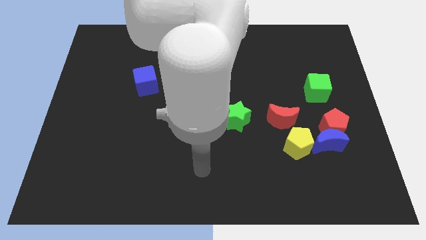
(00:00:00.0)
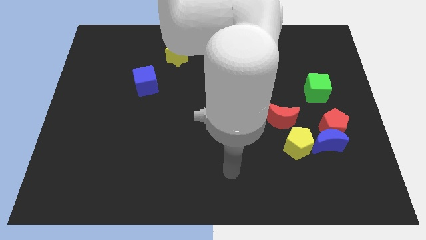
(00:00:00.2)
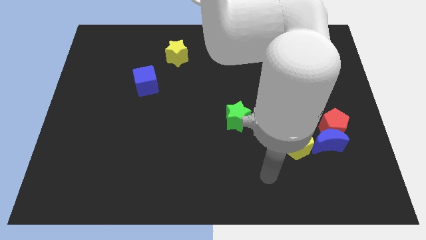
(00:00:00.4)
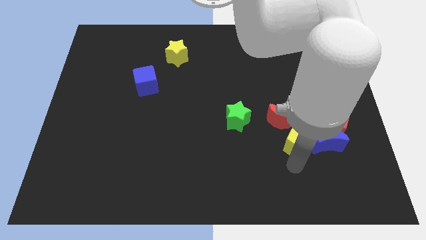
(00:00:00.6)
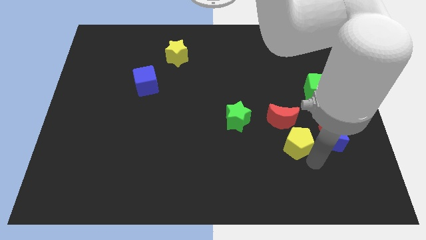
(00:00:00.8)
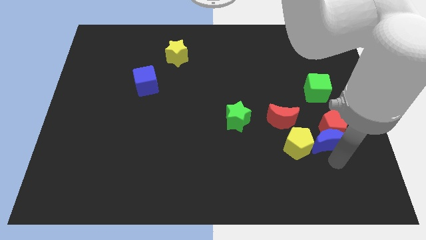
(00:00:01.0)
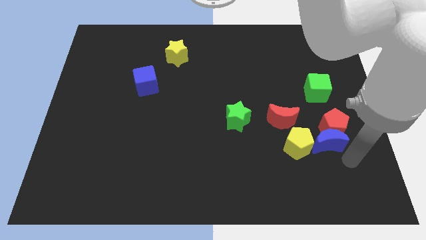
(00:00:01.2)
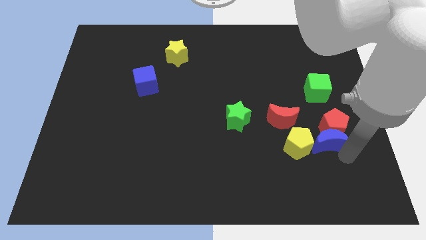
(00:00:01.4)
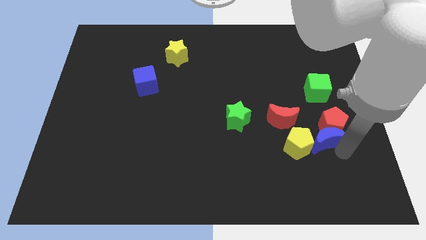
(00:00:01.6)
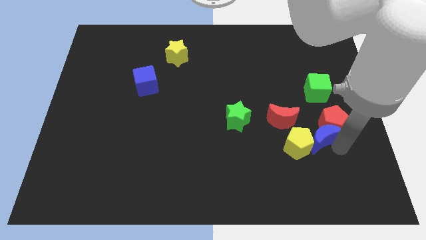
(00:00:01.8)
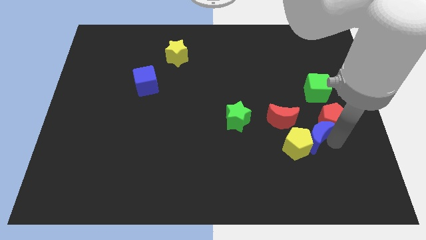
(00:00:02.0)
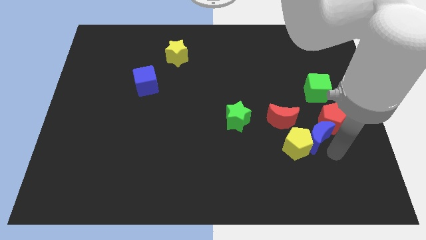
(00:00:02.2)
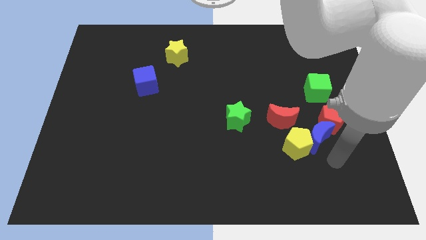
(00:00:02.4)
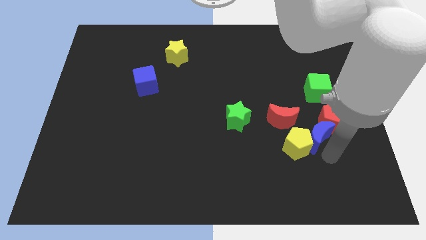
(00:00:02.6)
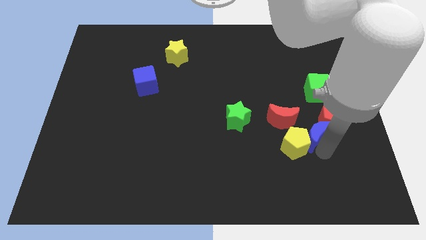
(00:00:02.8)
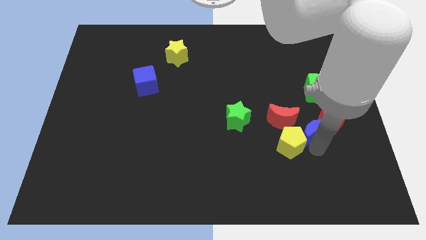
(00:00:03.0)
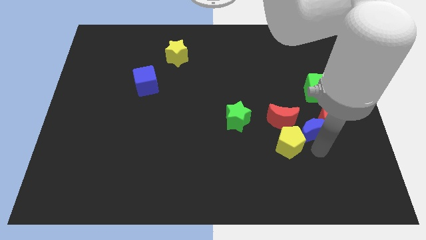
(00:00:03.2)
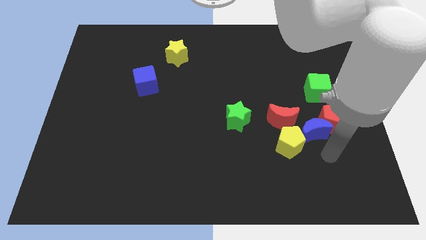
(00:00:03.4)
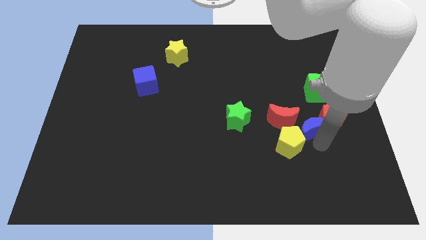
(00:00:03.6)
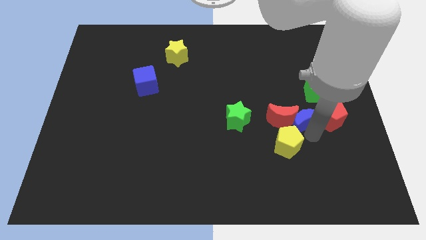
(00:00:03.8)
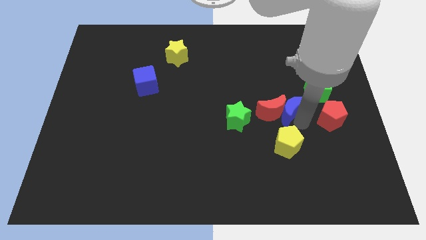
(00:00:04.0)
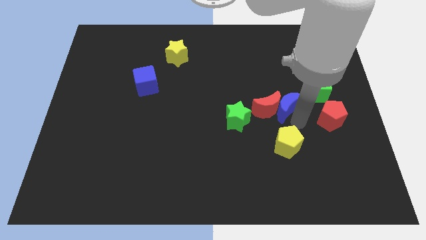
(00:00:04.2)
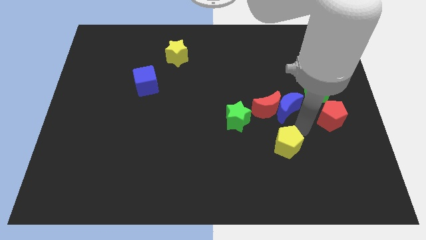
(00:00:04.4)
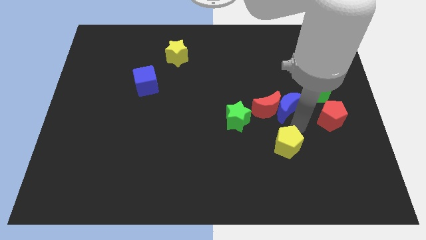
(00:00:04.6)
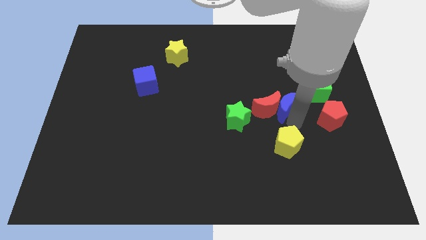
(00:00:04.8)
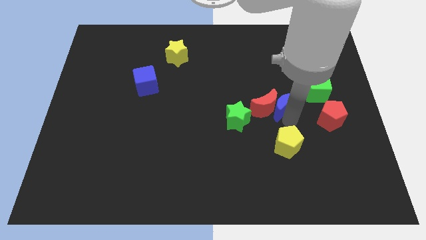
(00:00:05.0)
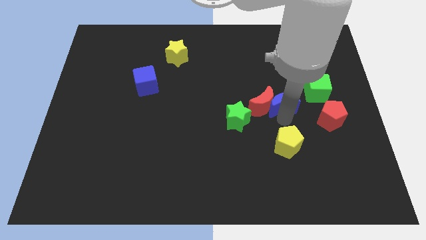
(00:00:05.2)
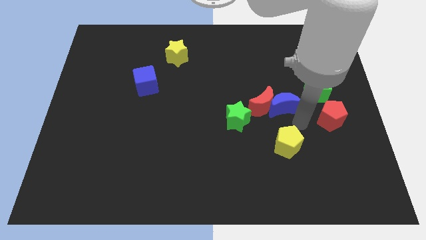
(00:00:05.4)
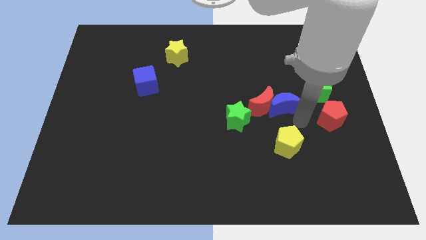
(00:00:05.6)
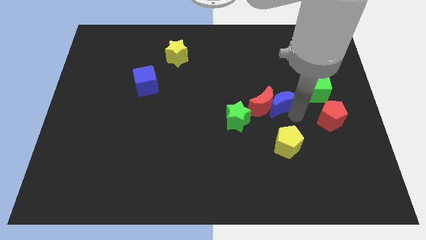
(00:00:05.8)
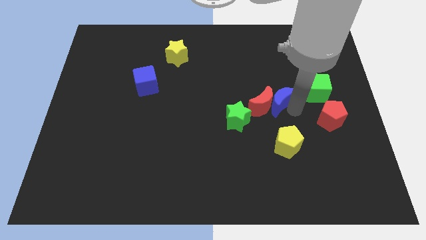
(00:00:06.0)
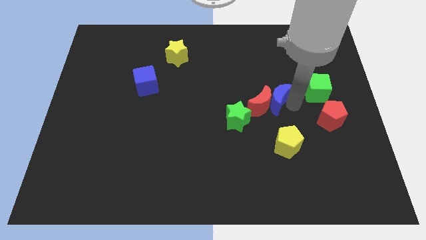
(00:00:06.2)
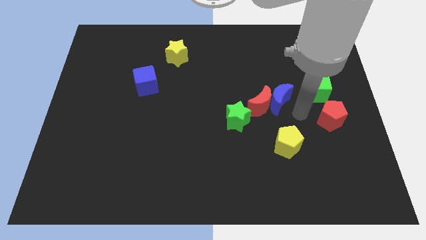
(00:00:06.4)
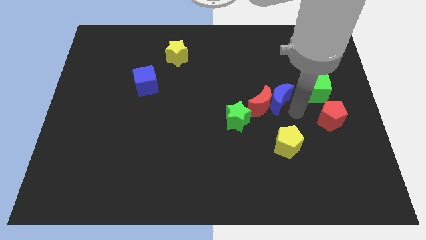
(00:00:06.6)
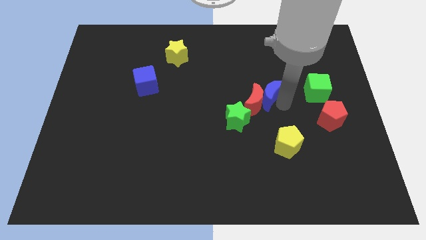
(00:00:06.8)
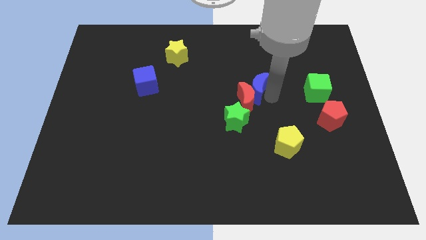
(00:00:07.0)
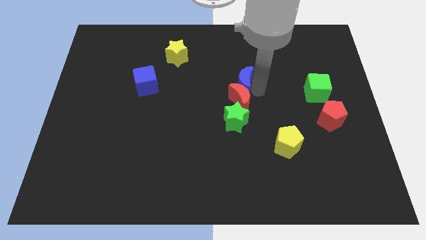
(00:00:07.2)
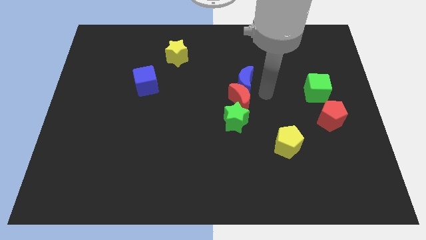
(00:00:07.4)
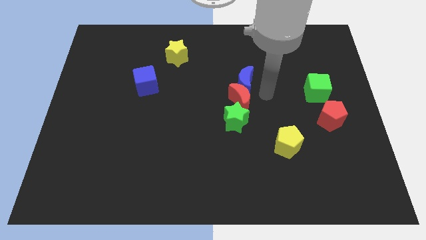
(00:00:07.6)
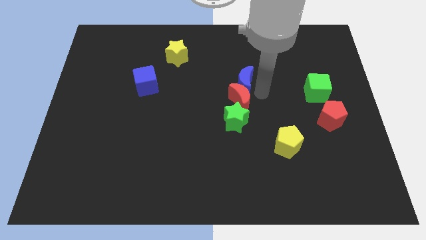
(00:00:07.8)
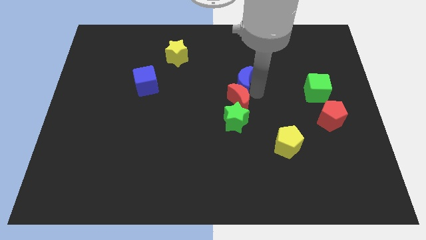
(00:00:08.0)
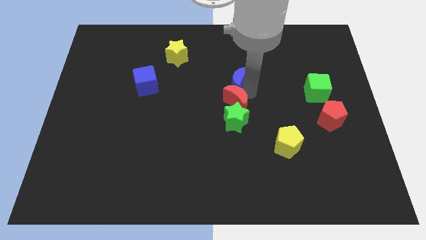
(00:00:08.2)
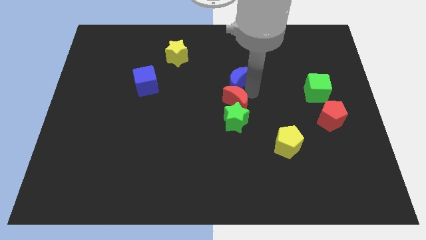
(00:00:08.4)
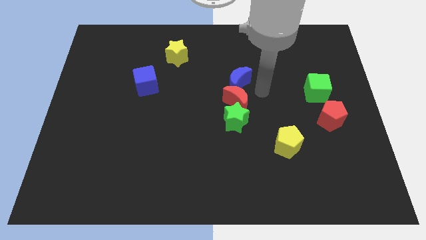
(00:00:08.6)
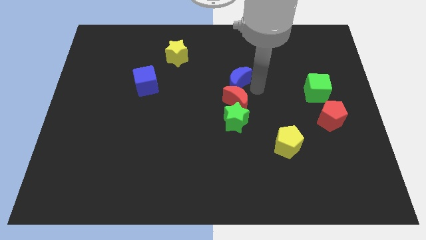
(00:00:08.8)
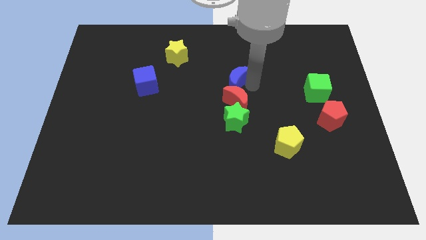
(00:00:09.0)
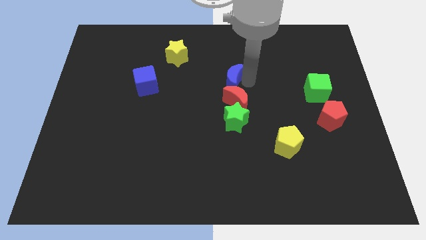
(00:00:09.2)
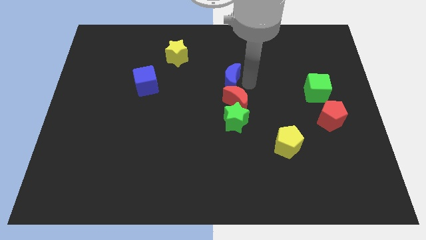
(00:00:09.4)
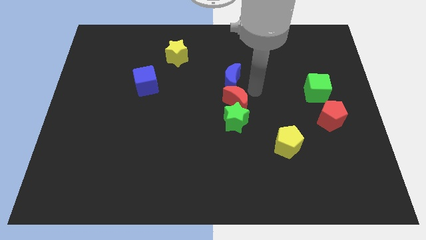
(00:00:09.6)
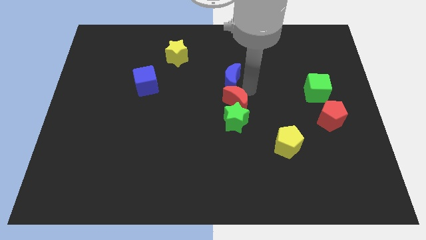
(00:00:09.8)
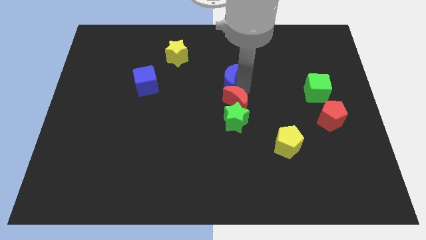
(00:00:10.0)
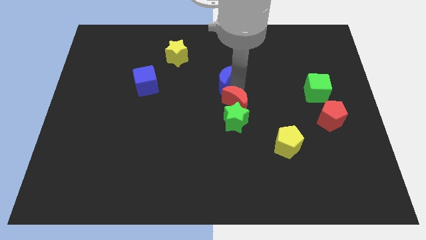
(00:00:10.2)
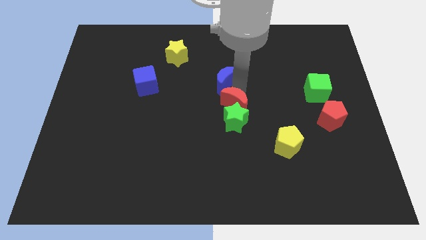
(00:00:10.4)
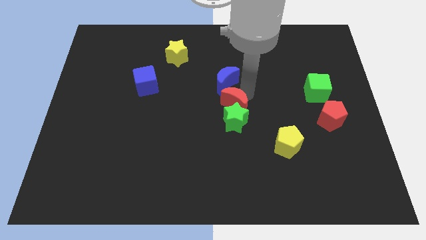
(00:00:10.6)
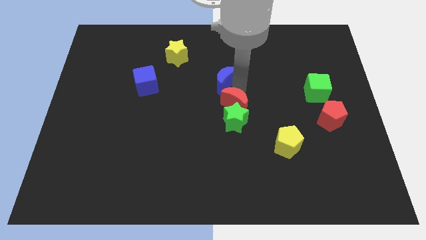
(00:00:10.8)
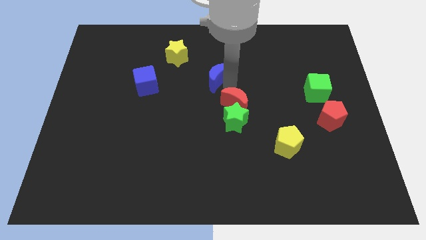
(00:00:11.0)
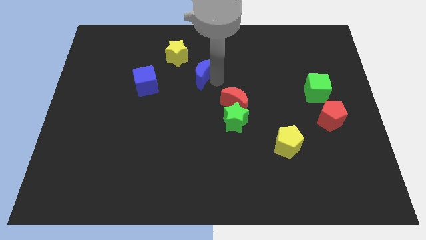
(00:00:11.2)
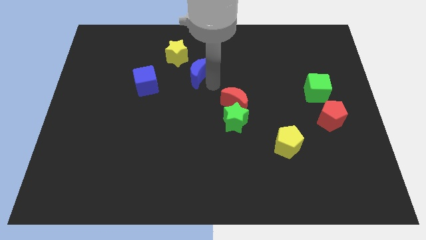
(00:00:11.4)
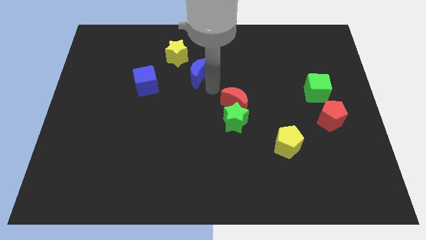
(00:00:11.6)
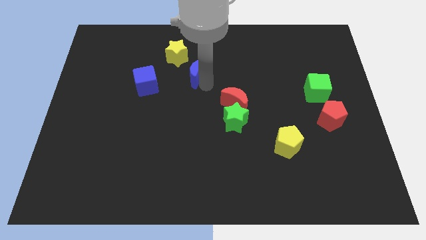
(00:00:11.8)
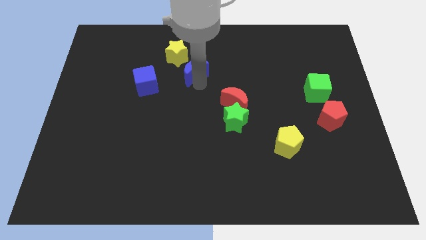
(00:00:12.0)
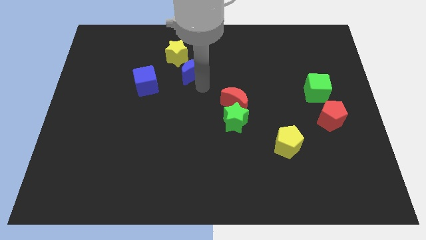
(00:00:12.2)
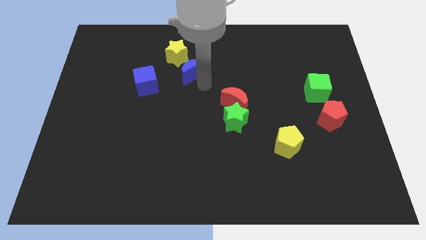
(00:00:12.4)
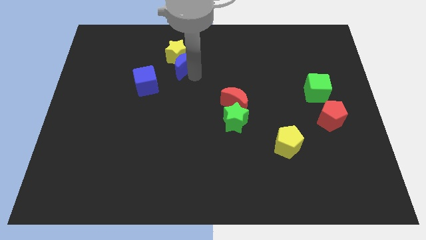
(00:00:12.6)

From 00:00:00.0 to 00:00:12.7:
put the blue moon next to the yellow star
